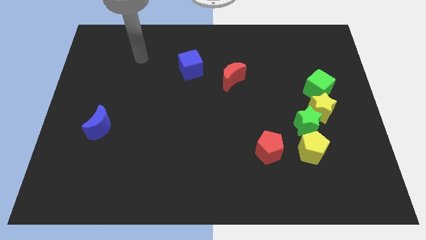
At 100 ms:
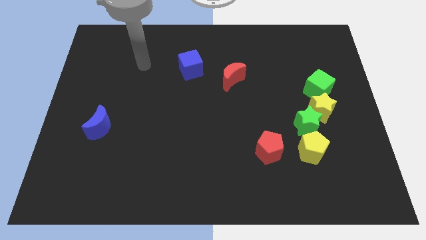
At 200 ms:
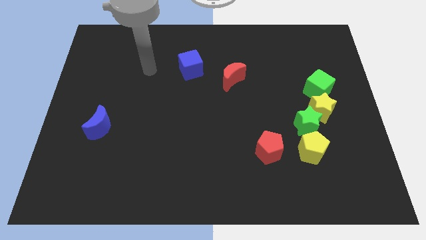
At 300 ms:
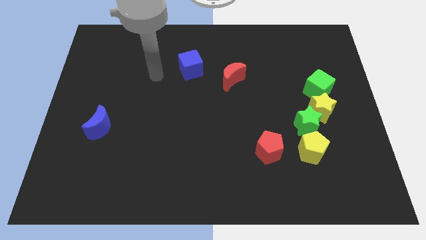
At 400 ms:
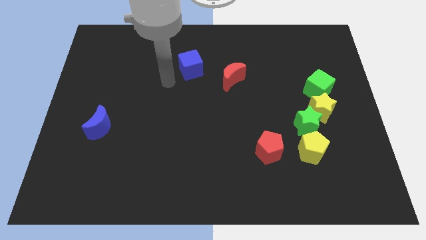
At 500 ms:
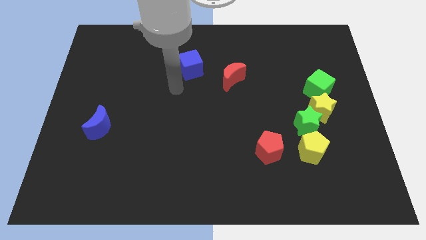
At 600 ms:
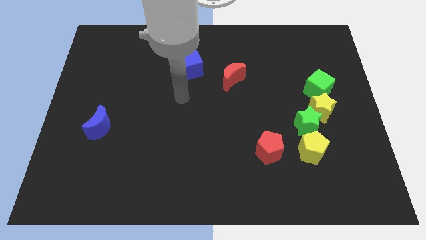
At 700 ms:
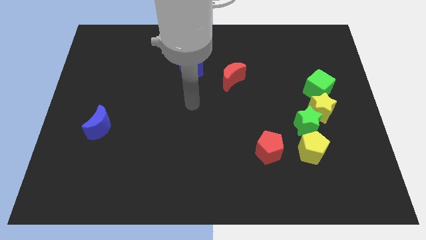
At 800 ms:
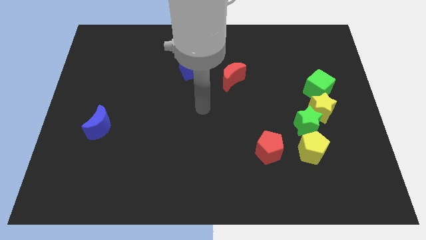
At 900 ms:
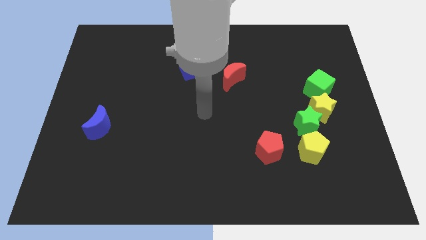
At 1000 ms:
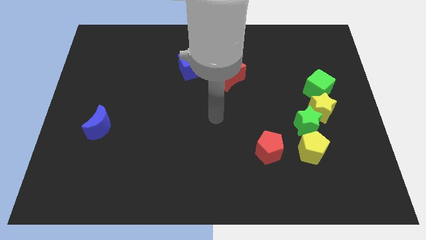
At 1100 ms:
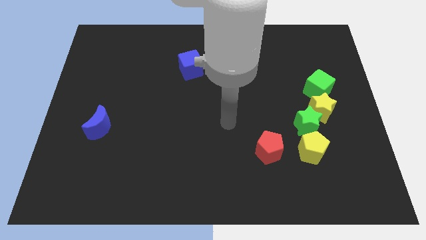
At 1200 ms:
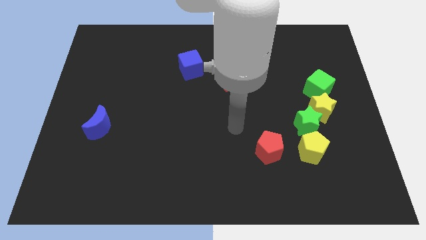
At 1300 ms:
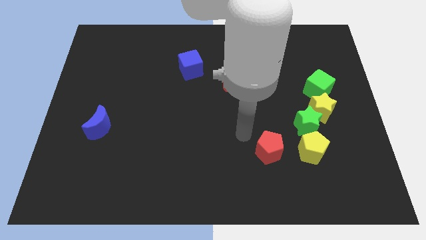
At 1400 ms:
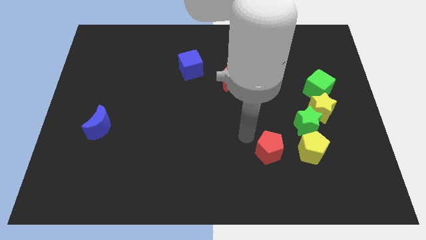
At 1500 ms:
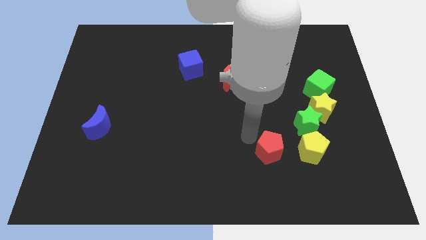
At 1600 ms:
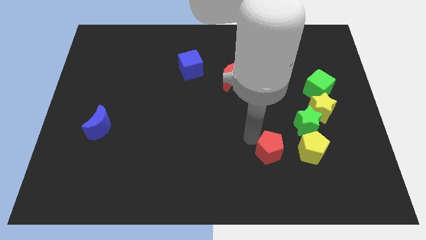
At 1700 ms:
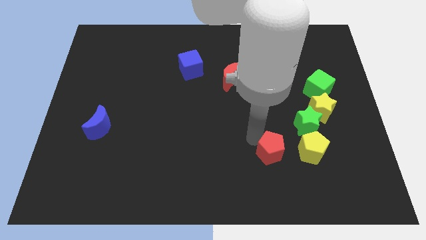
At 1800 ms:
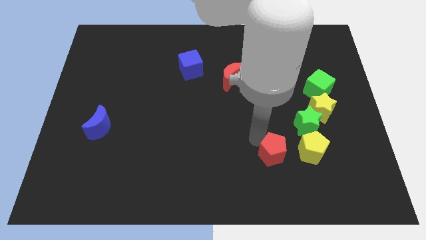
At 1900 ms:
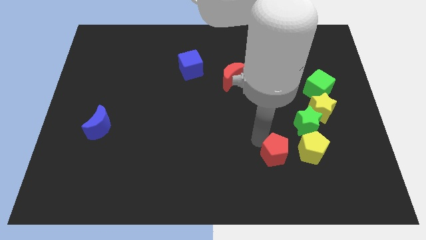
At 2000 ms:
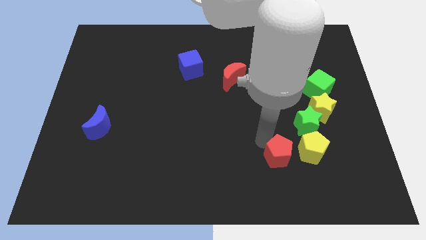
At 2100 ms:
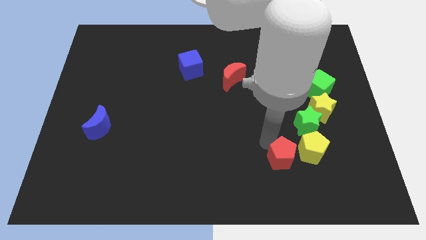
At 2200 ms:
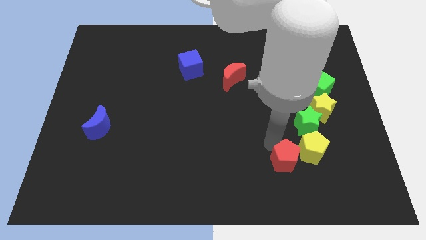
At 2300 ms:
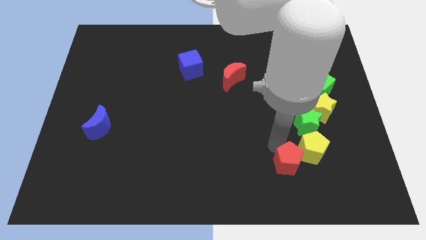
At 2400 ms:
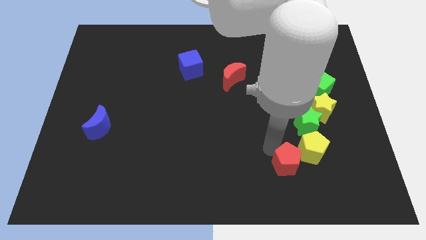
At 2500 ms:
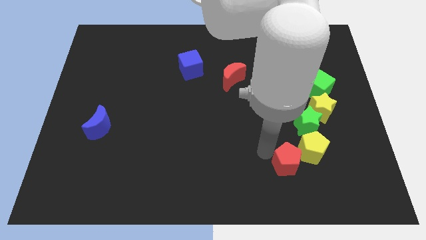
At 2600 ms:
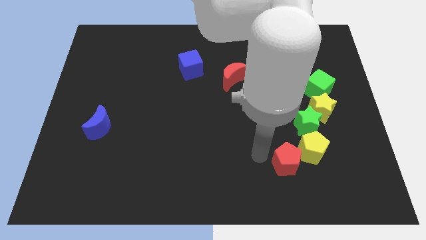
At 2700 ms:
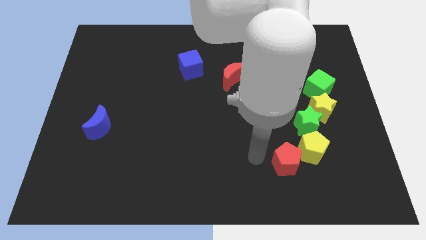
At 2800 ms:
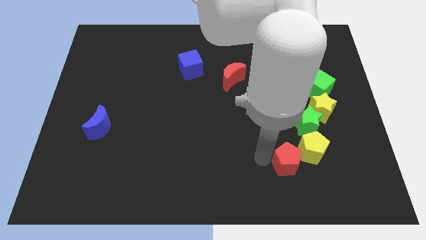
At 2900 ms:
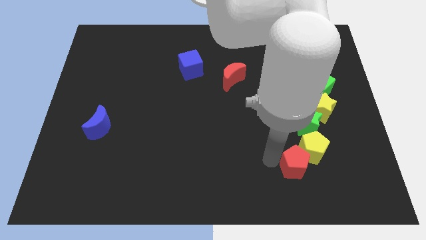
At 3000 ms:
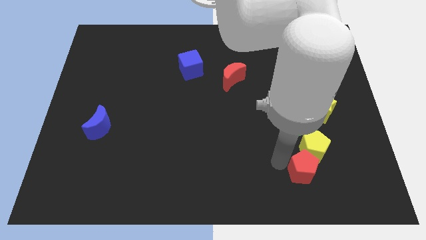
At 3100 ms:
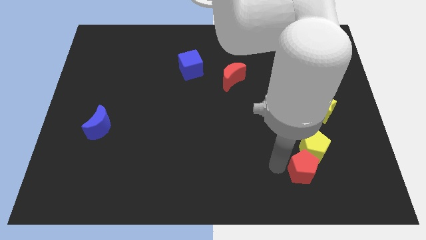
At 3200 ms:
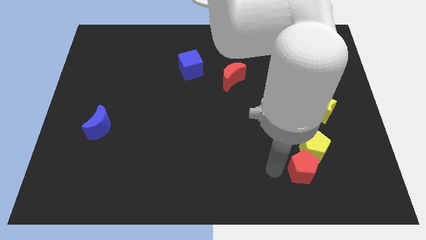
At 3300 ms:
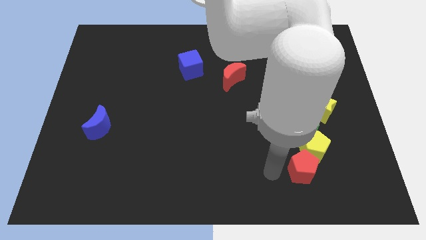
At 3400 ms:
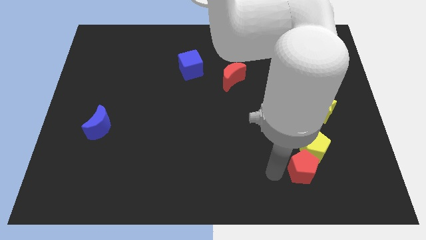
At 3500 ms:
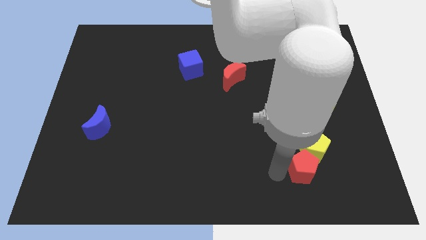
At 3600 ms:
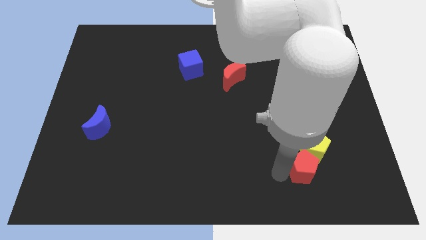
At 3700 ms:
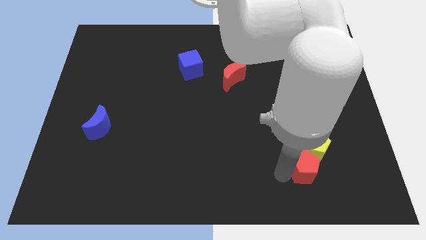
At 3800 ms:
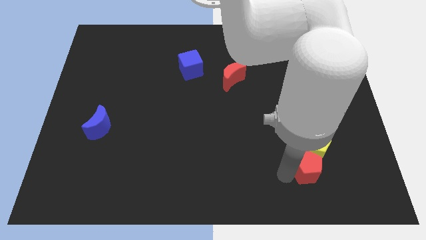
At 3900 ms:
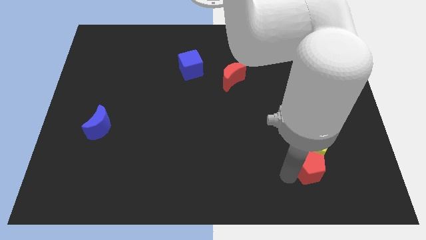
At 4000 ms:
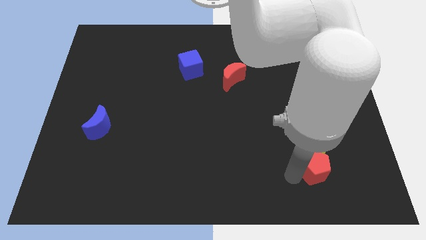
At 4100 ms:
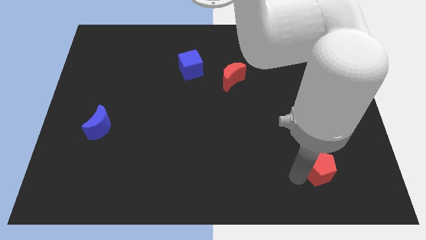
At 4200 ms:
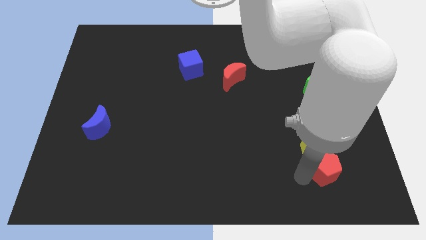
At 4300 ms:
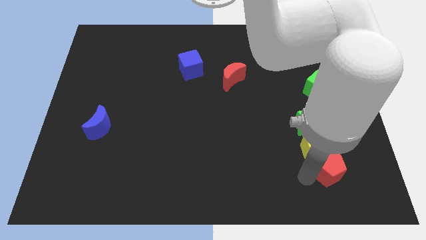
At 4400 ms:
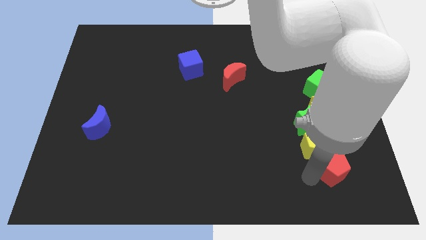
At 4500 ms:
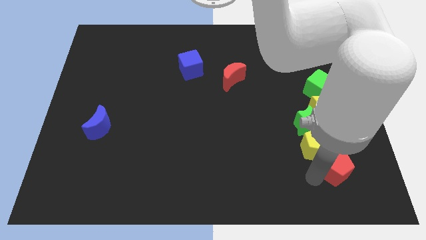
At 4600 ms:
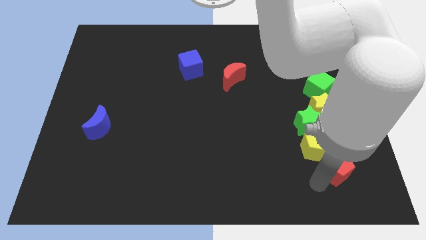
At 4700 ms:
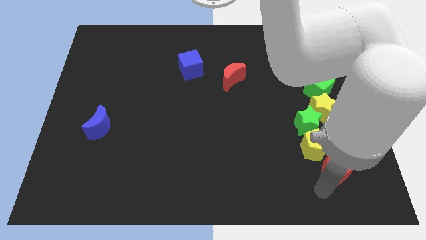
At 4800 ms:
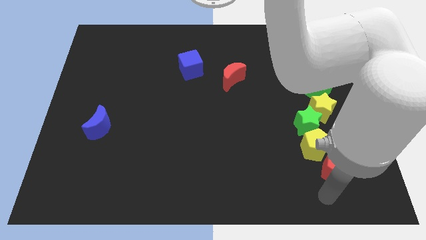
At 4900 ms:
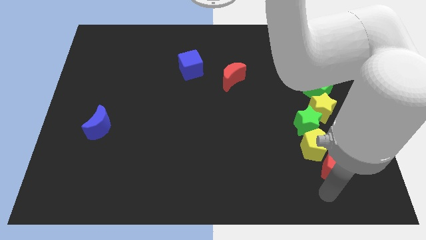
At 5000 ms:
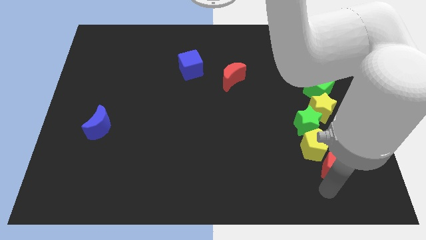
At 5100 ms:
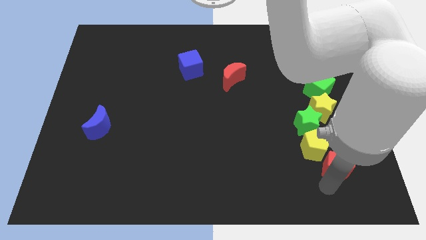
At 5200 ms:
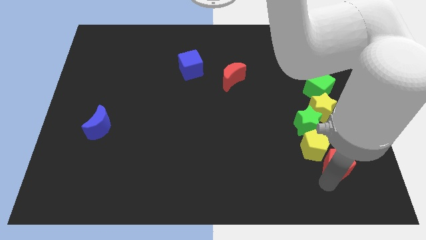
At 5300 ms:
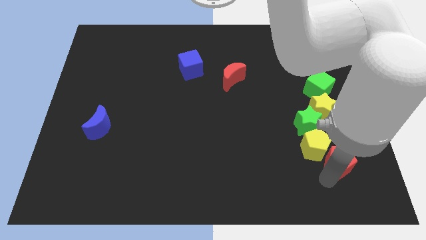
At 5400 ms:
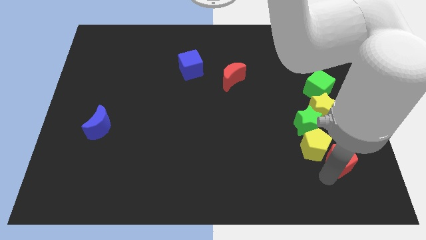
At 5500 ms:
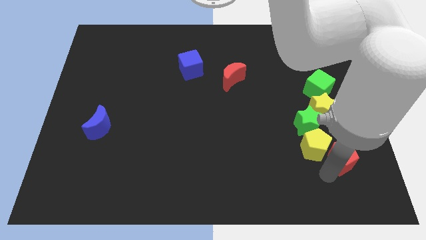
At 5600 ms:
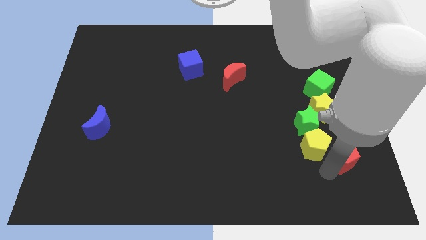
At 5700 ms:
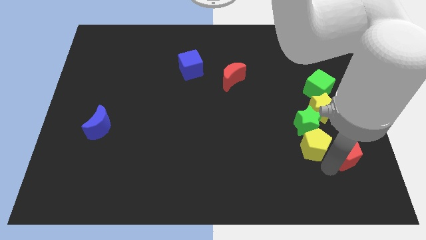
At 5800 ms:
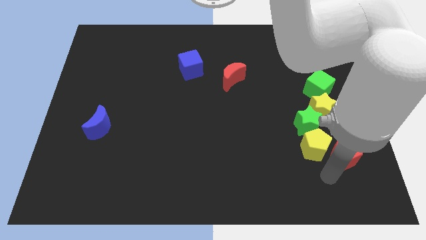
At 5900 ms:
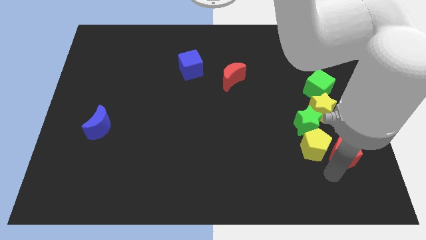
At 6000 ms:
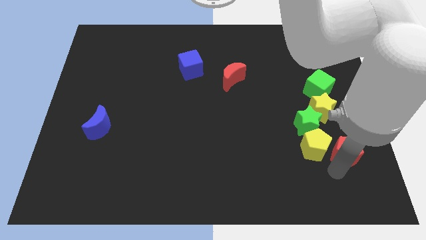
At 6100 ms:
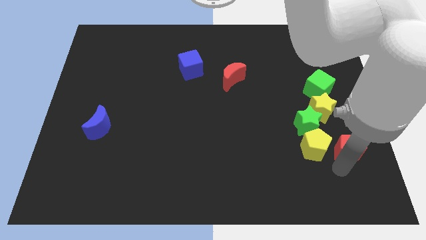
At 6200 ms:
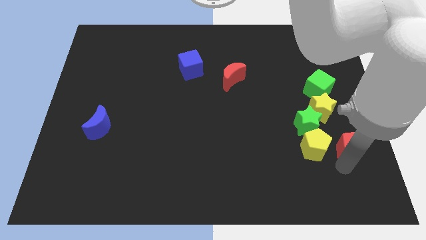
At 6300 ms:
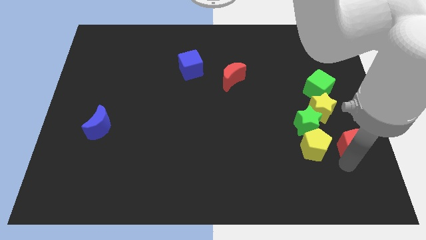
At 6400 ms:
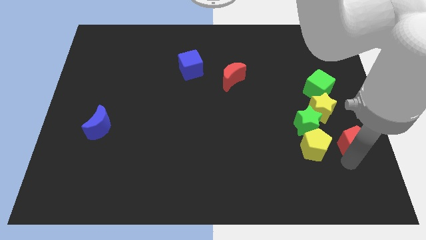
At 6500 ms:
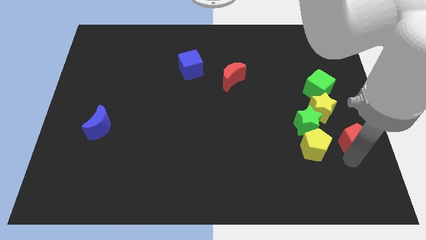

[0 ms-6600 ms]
put the red pentagon to the right side
